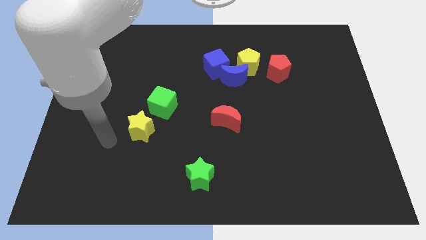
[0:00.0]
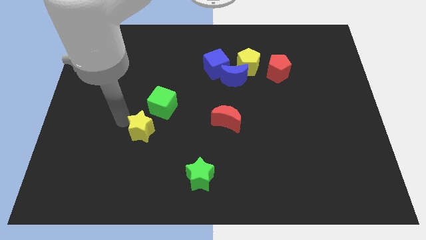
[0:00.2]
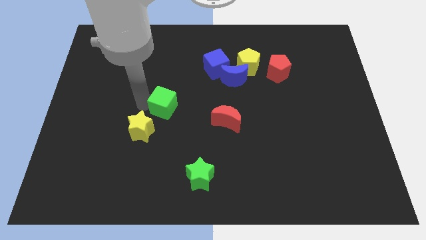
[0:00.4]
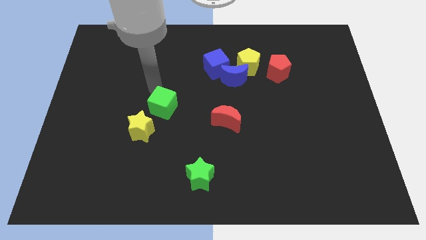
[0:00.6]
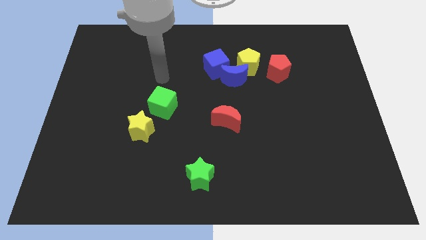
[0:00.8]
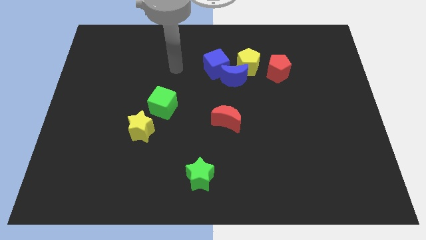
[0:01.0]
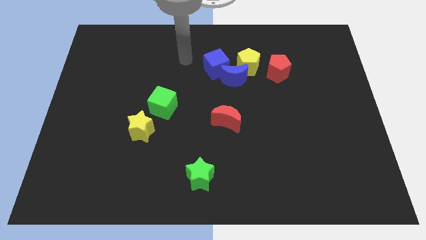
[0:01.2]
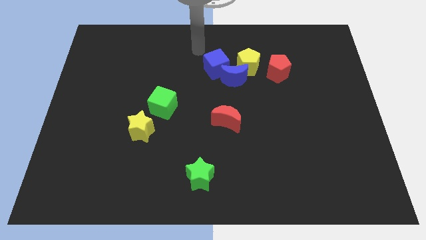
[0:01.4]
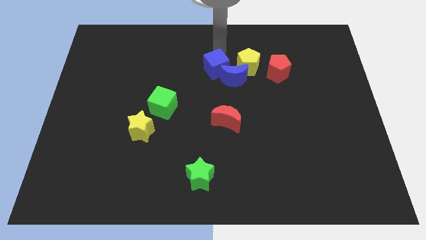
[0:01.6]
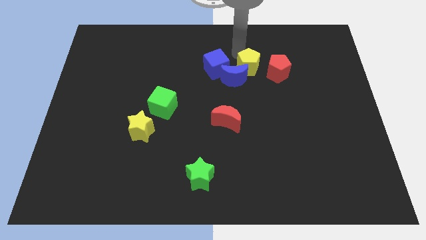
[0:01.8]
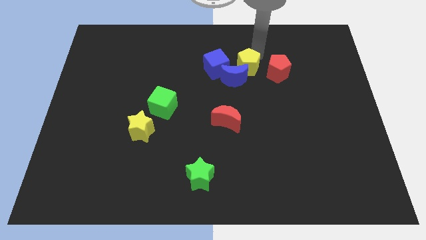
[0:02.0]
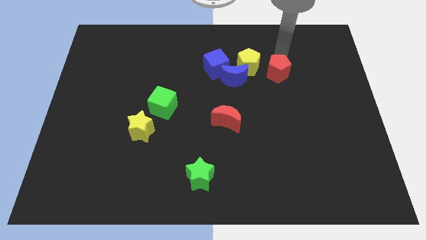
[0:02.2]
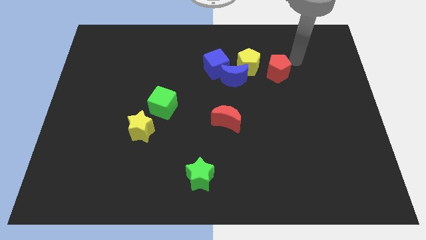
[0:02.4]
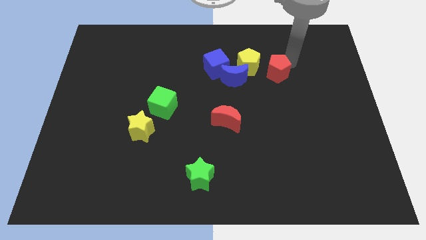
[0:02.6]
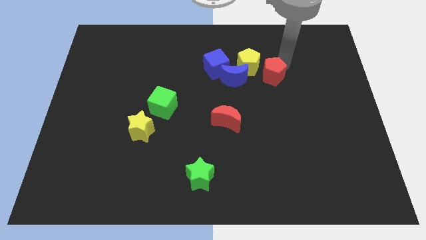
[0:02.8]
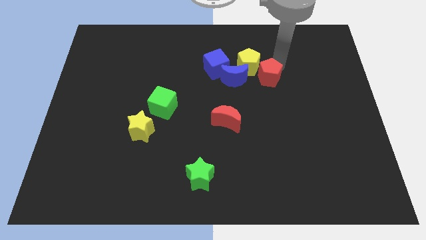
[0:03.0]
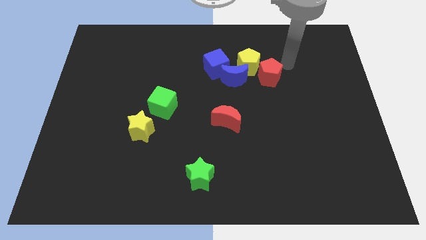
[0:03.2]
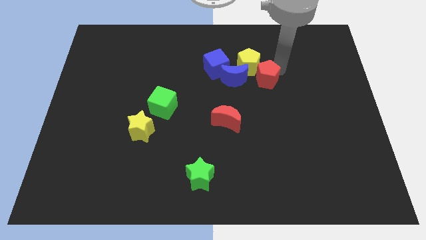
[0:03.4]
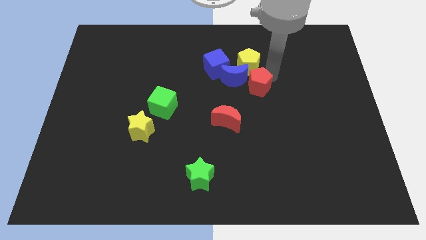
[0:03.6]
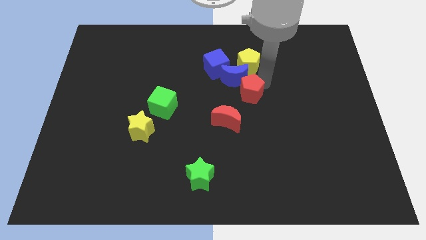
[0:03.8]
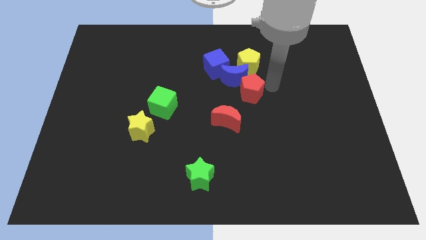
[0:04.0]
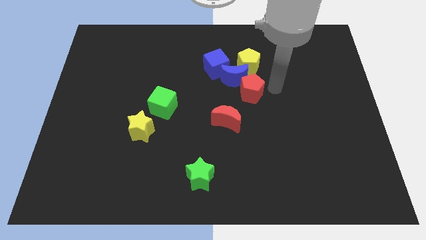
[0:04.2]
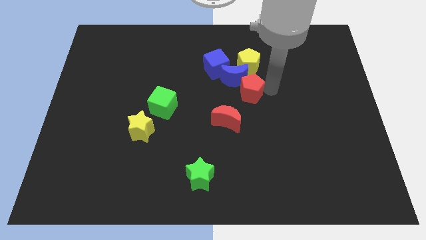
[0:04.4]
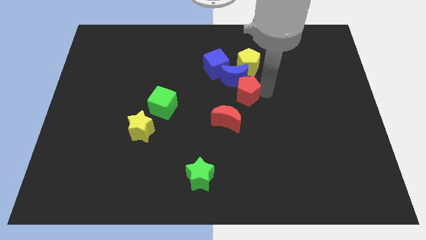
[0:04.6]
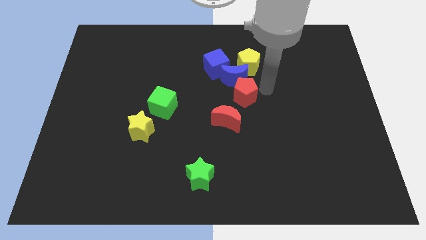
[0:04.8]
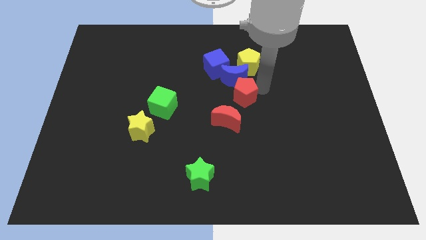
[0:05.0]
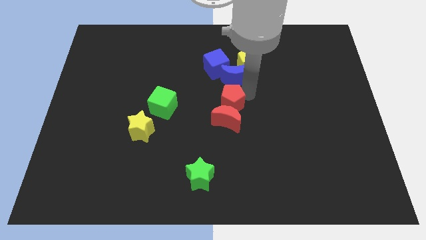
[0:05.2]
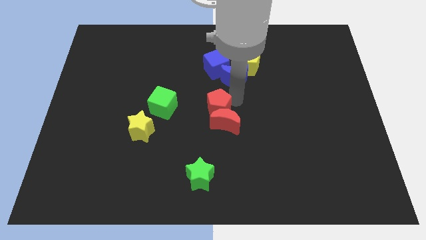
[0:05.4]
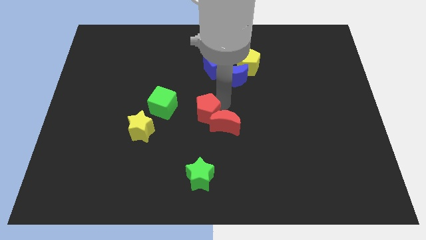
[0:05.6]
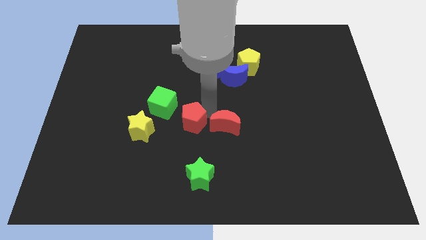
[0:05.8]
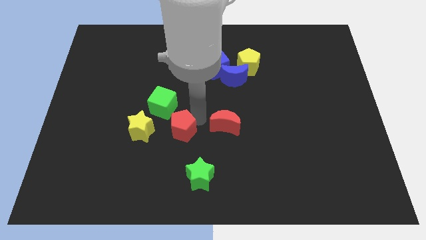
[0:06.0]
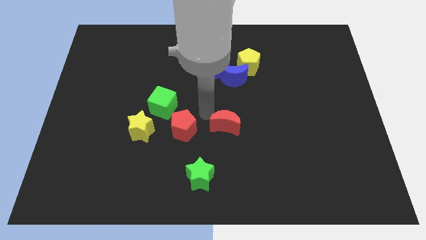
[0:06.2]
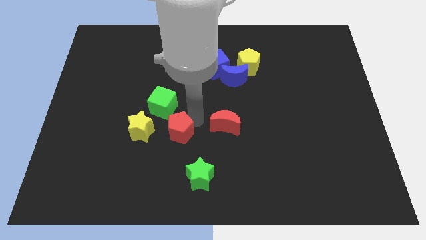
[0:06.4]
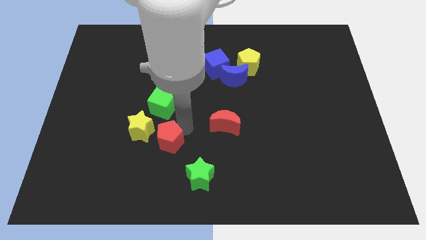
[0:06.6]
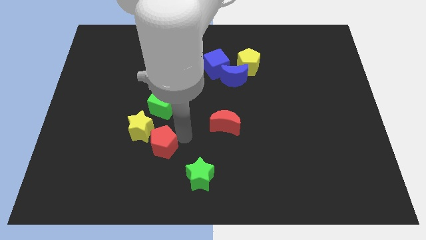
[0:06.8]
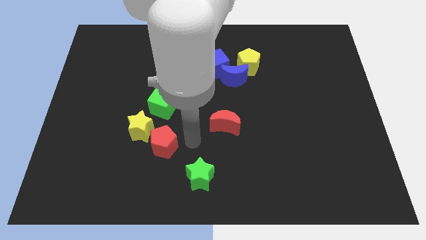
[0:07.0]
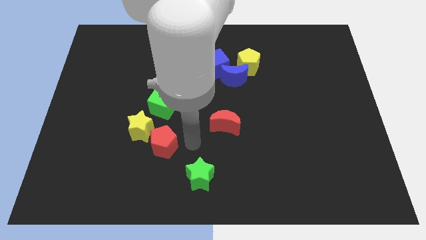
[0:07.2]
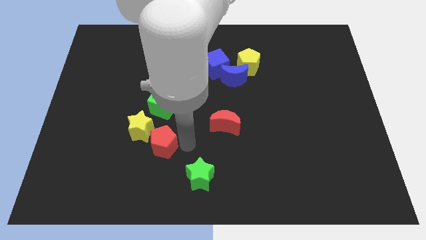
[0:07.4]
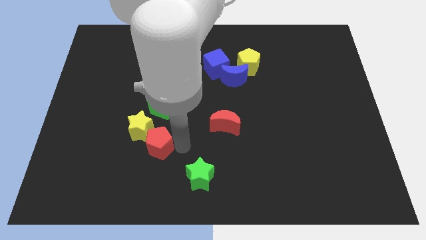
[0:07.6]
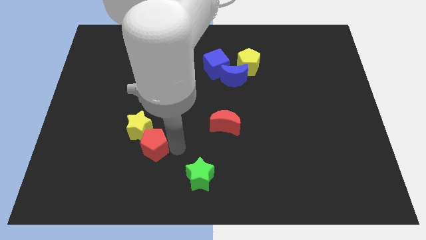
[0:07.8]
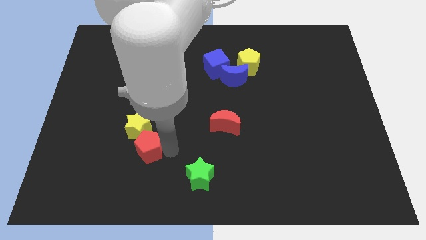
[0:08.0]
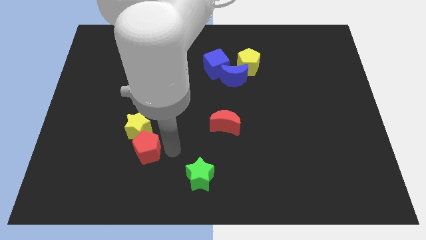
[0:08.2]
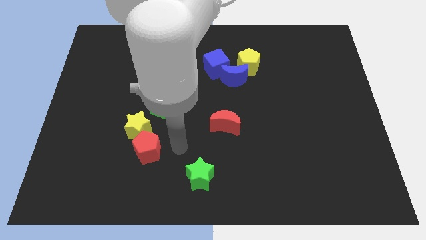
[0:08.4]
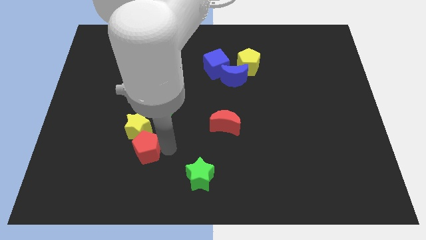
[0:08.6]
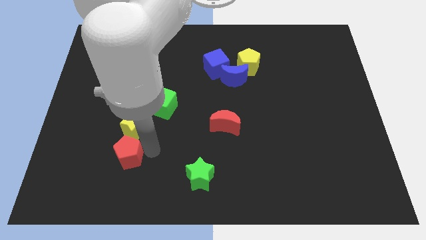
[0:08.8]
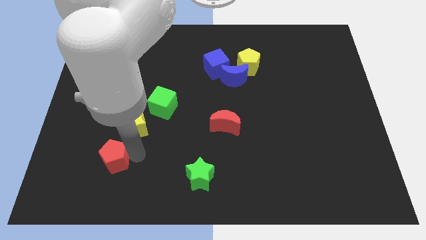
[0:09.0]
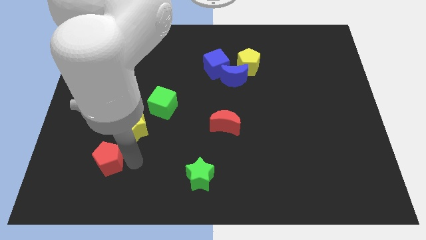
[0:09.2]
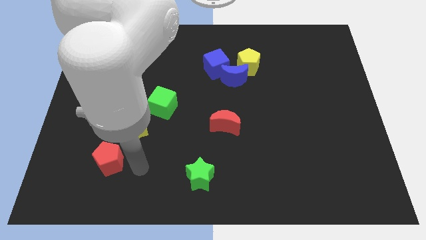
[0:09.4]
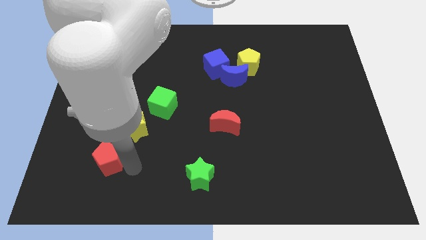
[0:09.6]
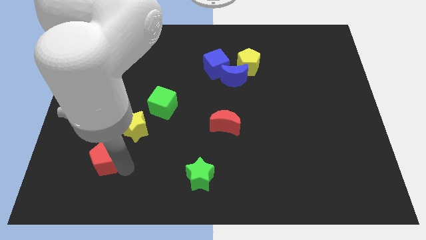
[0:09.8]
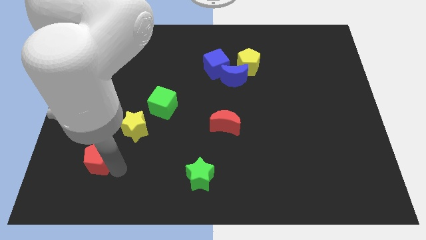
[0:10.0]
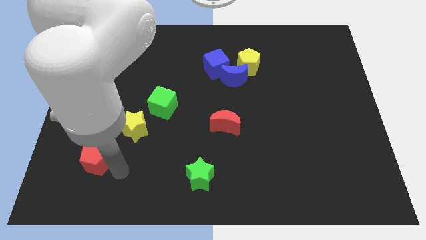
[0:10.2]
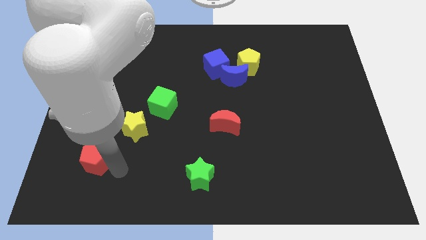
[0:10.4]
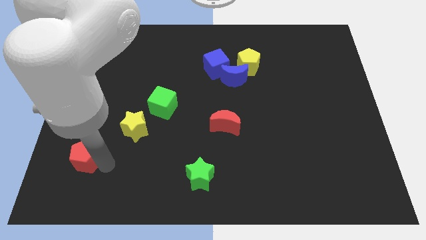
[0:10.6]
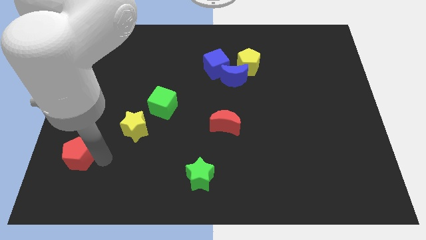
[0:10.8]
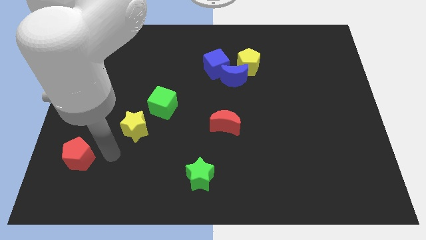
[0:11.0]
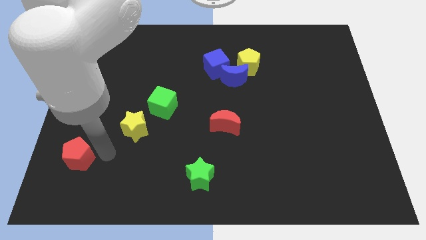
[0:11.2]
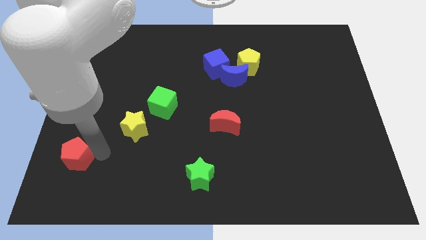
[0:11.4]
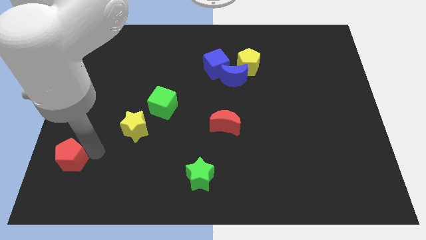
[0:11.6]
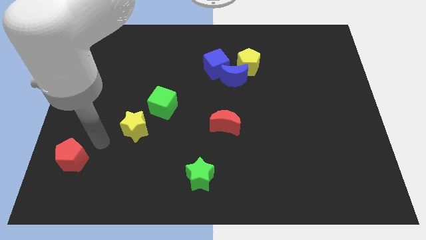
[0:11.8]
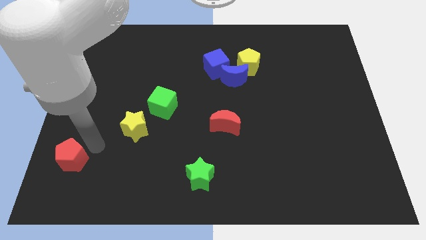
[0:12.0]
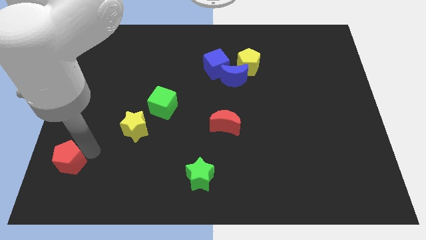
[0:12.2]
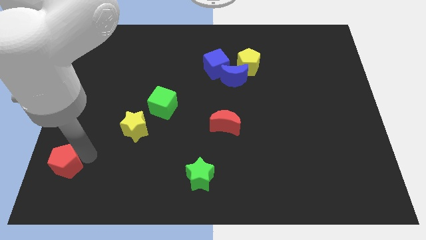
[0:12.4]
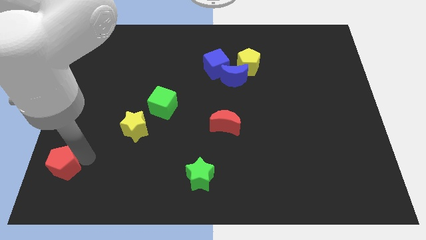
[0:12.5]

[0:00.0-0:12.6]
push the red pentagon to the lower left corner
